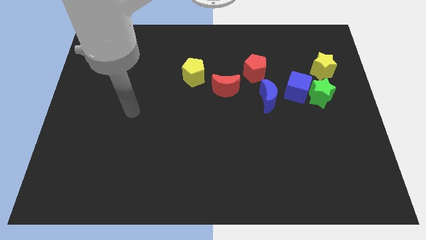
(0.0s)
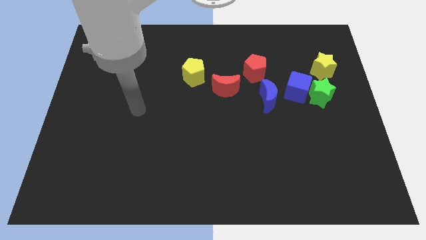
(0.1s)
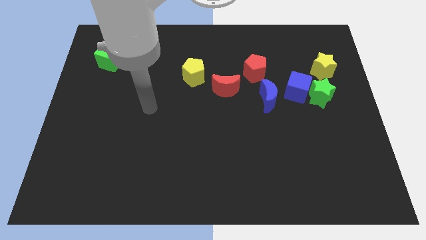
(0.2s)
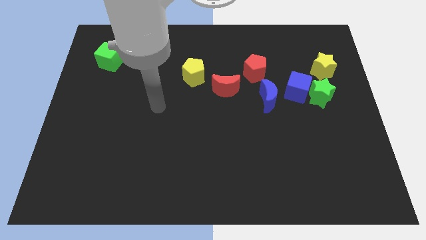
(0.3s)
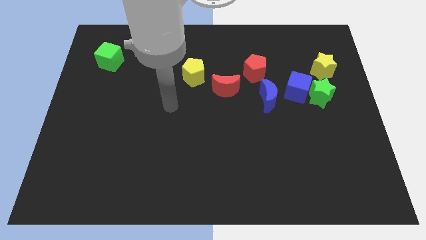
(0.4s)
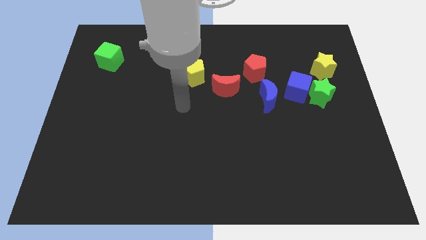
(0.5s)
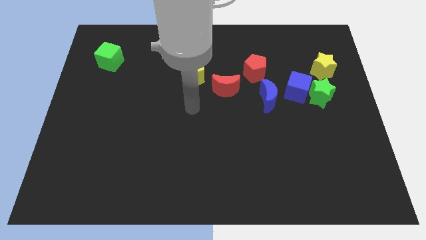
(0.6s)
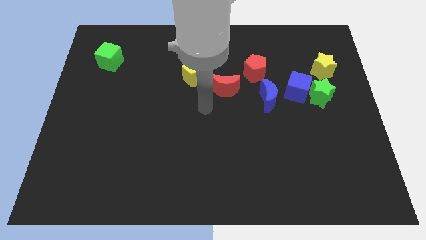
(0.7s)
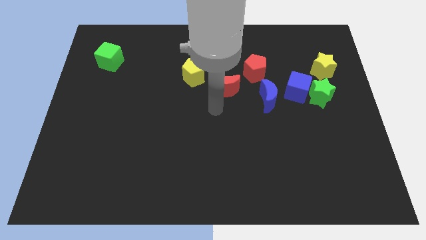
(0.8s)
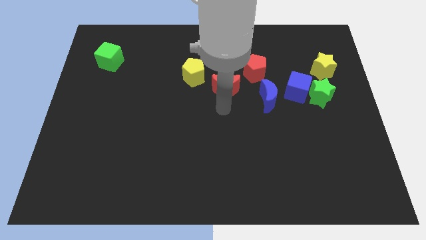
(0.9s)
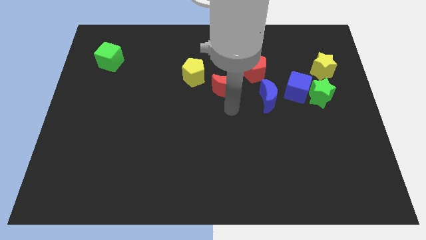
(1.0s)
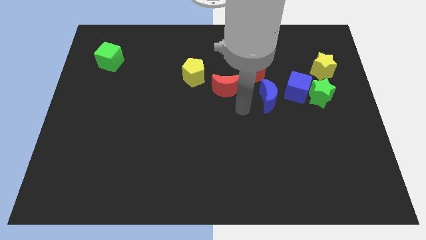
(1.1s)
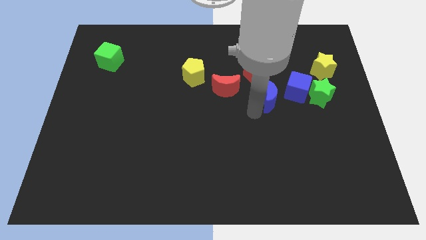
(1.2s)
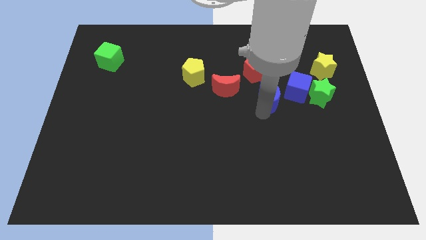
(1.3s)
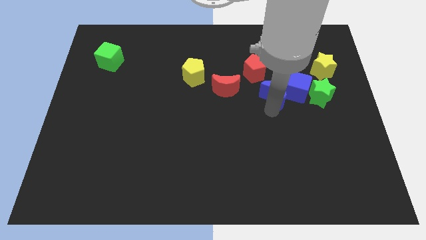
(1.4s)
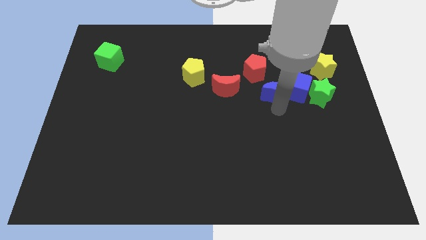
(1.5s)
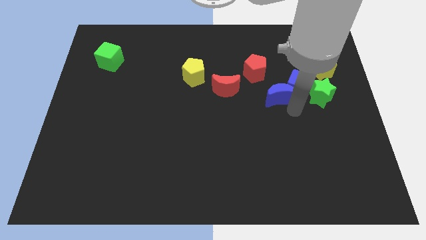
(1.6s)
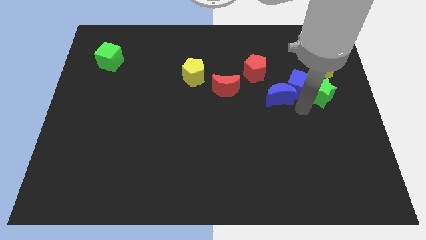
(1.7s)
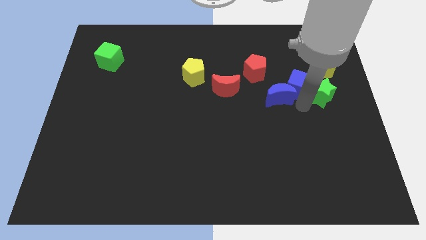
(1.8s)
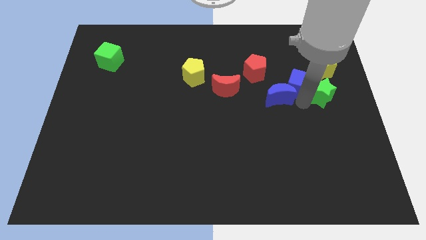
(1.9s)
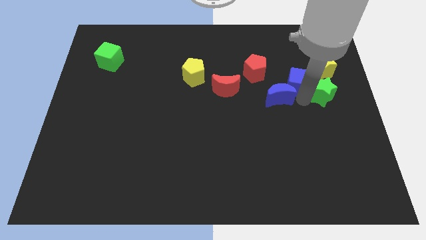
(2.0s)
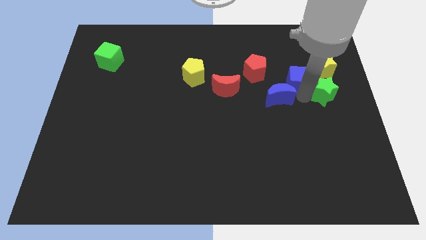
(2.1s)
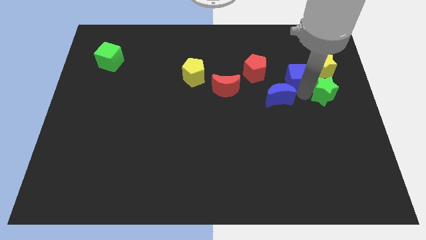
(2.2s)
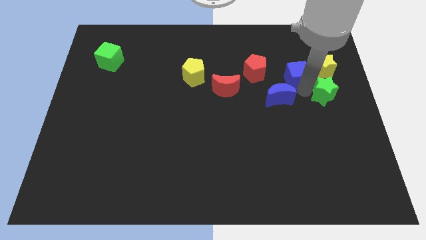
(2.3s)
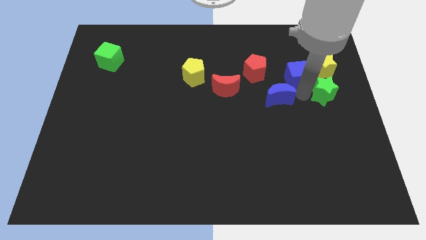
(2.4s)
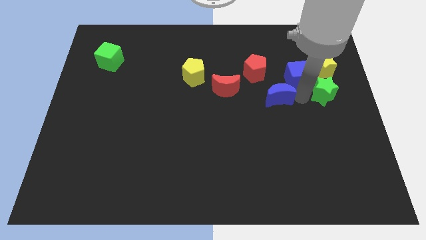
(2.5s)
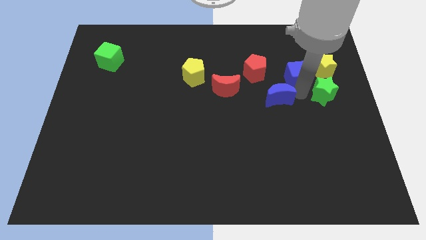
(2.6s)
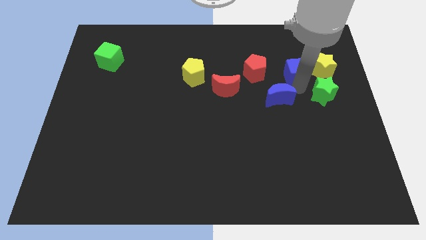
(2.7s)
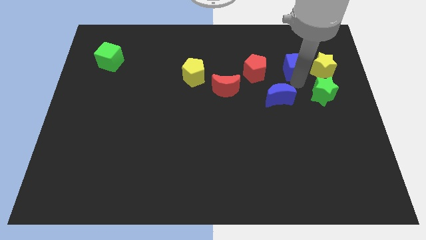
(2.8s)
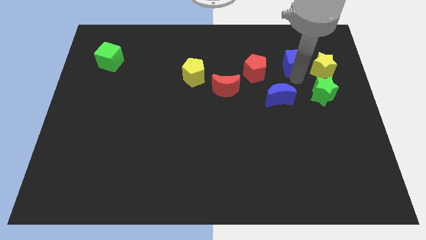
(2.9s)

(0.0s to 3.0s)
pull the blue cube apart from the green star and blue moon

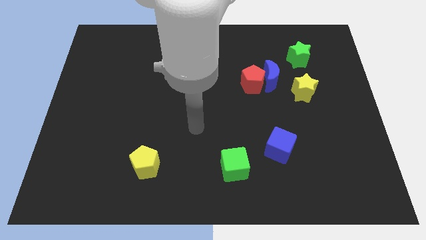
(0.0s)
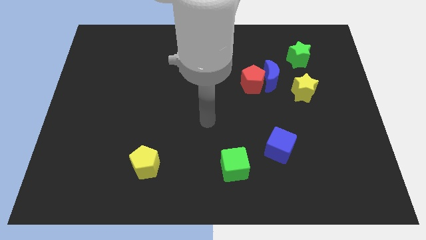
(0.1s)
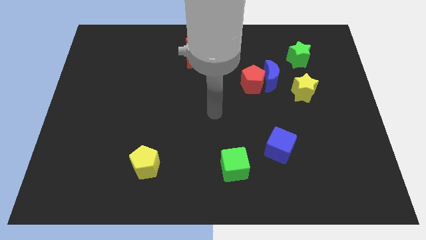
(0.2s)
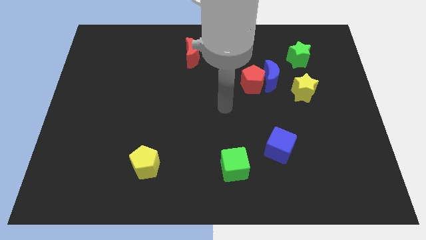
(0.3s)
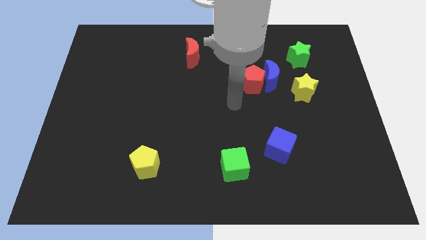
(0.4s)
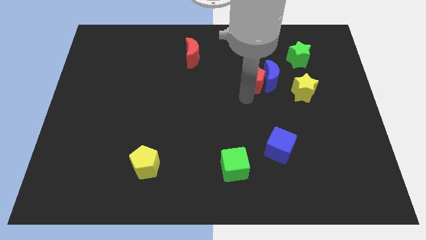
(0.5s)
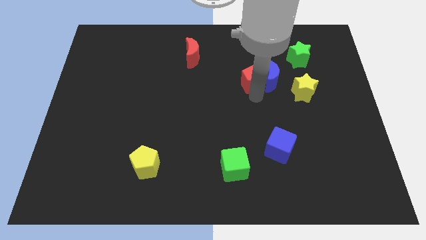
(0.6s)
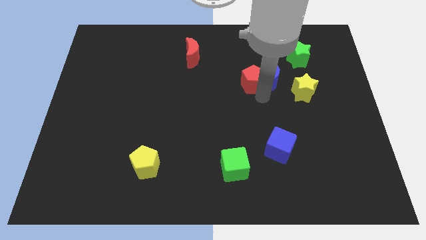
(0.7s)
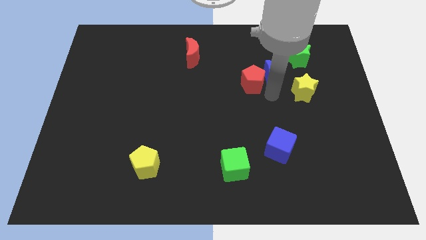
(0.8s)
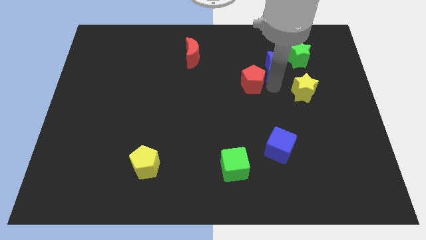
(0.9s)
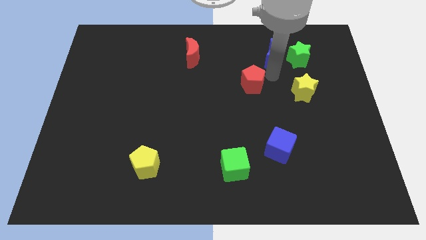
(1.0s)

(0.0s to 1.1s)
move the red pentagon away from the blue moon

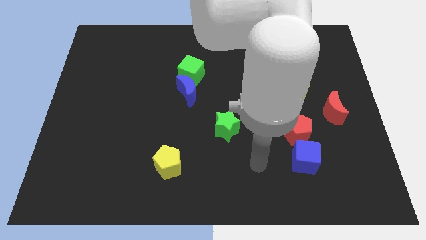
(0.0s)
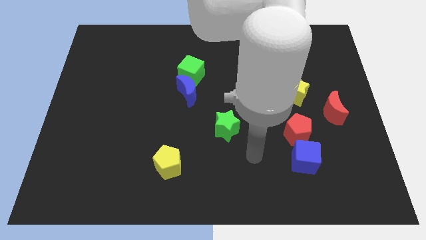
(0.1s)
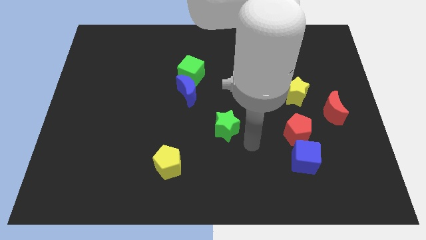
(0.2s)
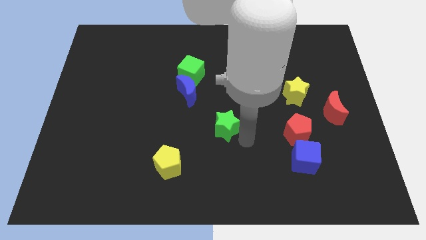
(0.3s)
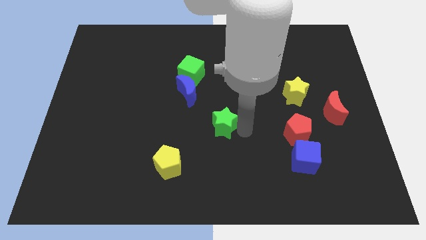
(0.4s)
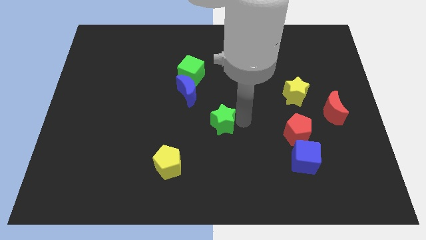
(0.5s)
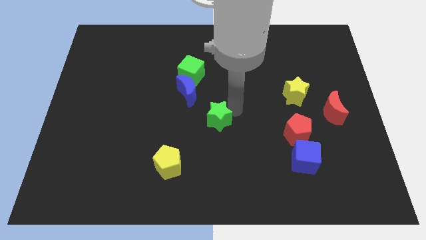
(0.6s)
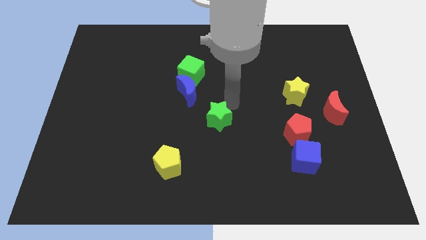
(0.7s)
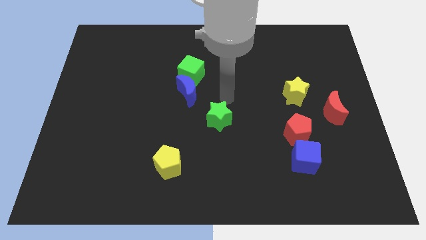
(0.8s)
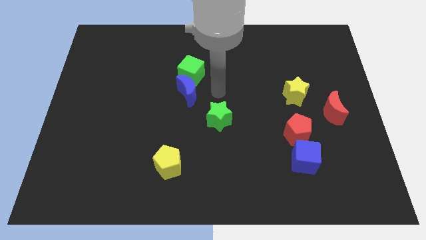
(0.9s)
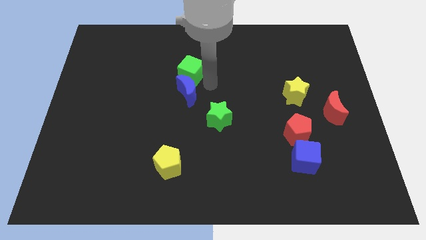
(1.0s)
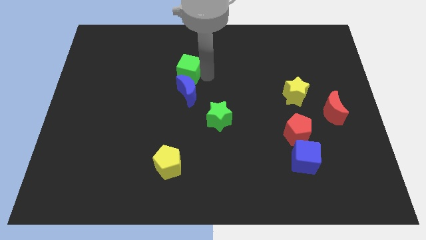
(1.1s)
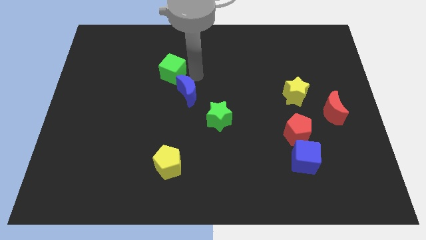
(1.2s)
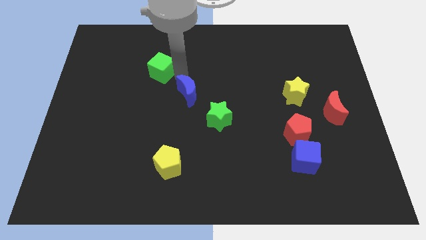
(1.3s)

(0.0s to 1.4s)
separate the blue moon from the green cube

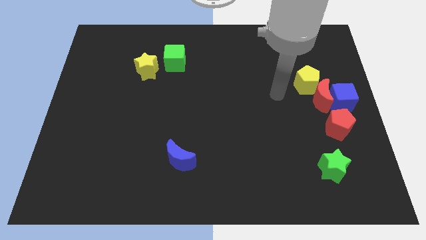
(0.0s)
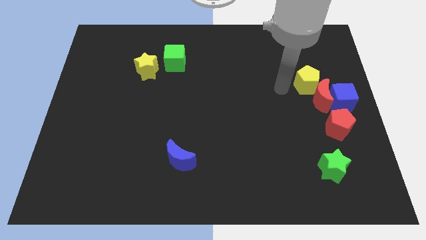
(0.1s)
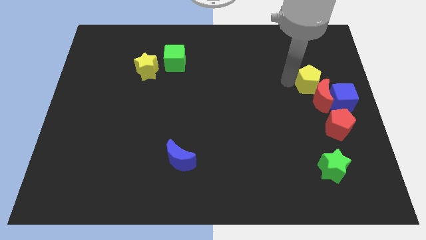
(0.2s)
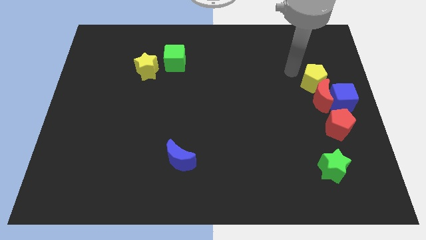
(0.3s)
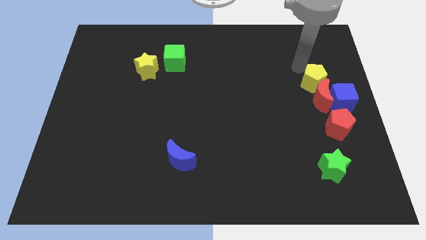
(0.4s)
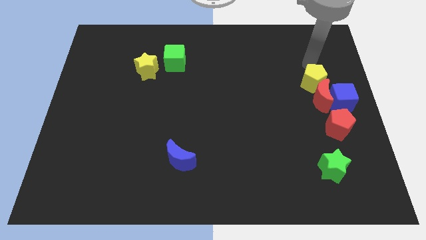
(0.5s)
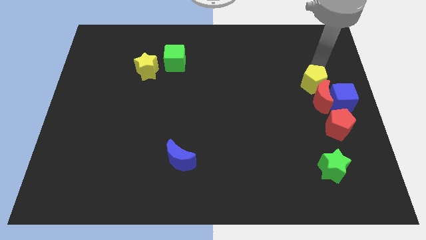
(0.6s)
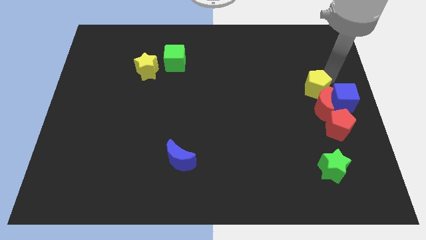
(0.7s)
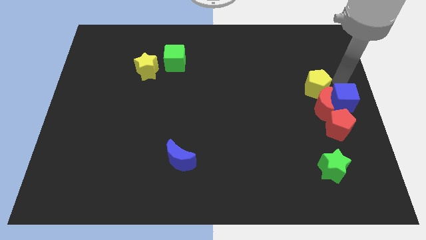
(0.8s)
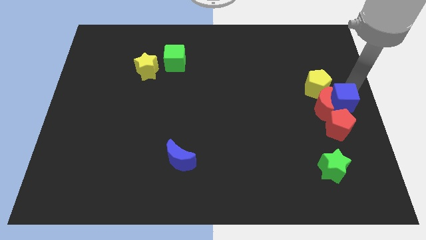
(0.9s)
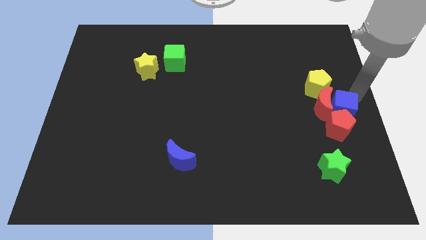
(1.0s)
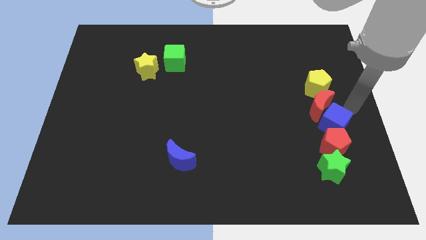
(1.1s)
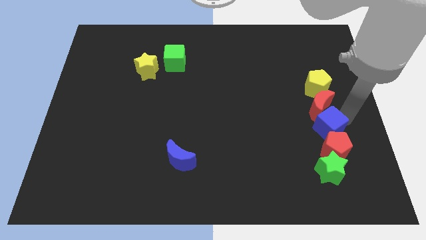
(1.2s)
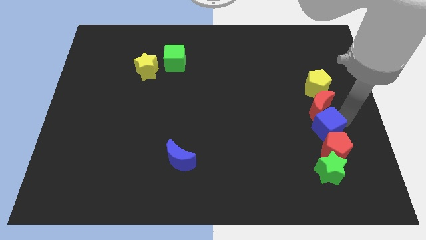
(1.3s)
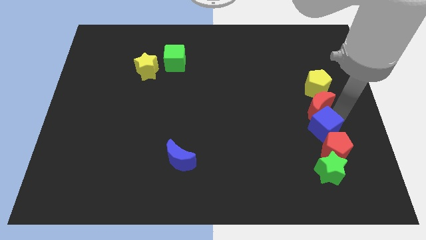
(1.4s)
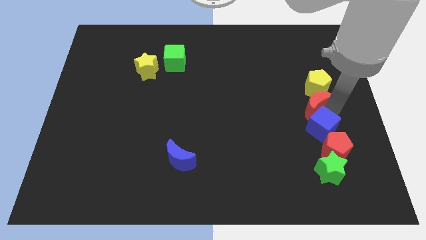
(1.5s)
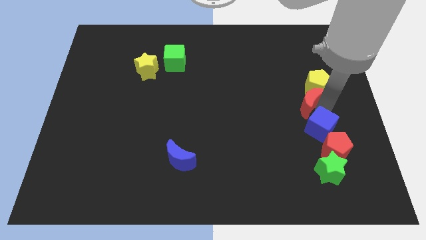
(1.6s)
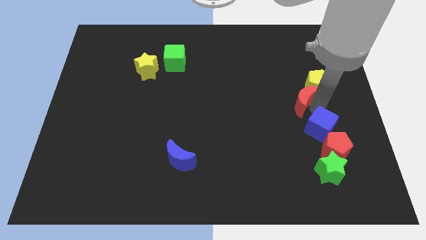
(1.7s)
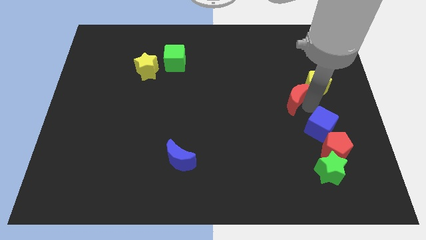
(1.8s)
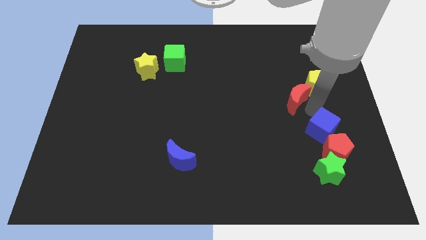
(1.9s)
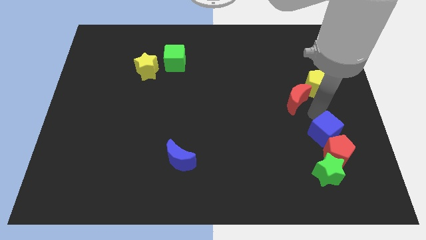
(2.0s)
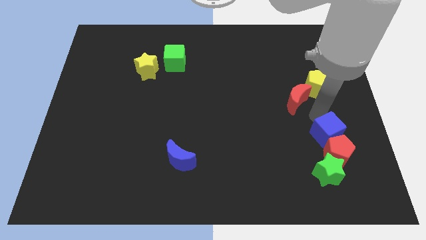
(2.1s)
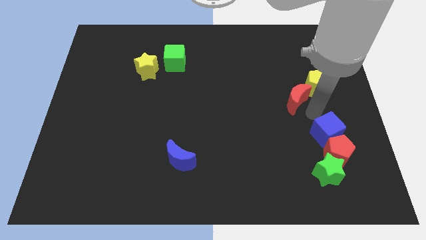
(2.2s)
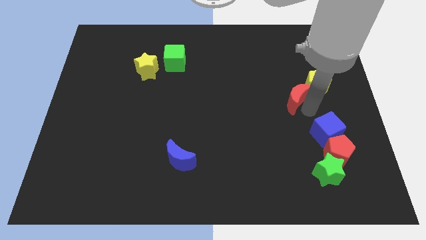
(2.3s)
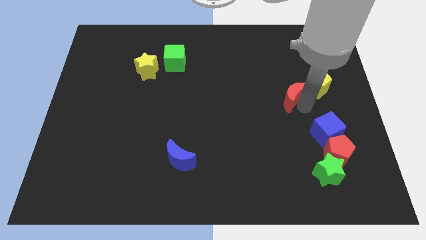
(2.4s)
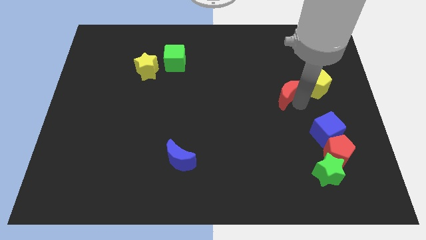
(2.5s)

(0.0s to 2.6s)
separate the red moon from the group of blocks

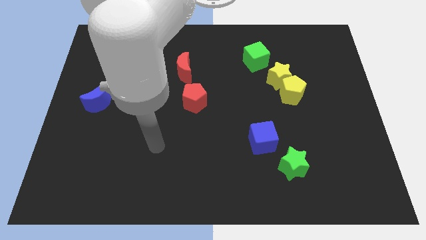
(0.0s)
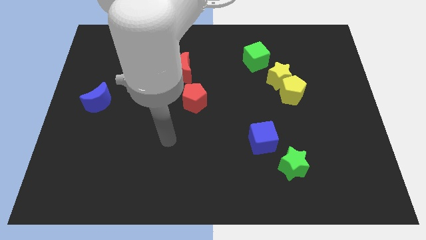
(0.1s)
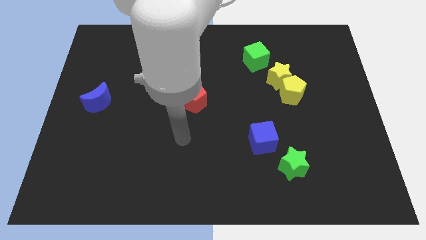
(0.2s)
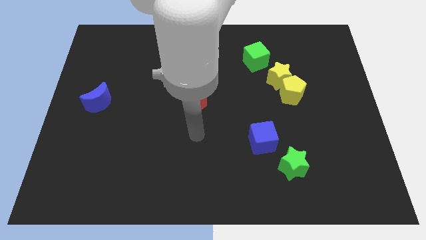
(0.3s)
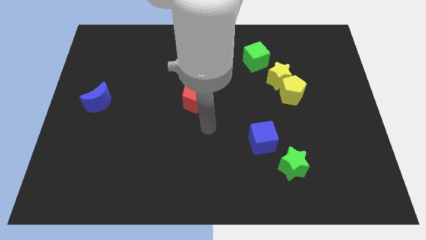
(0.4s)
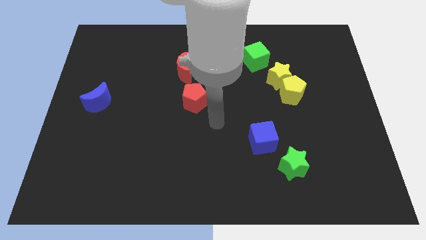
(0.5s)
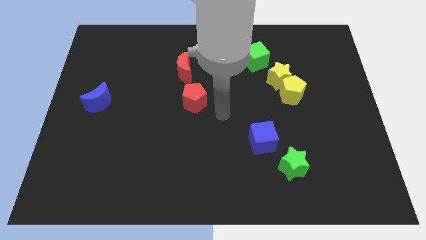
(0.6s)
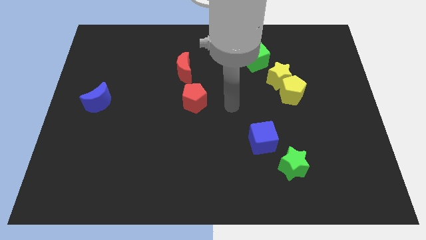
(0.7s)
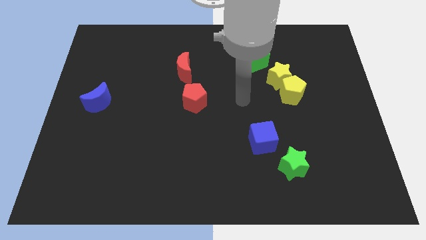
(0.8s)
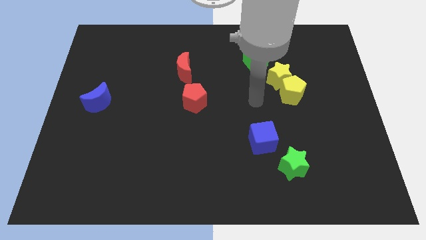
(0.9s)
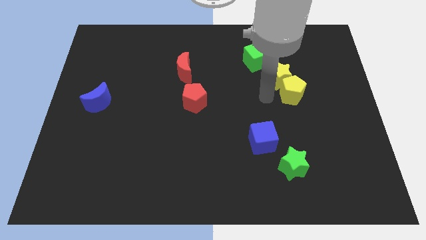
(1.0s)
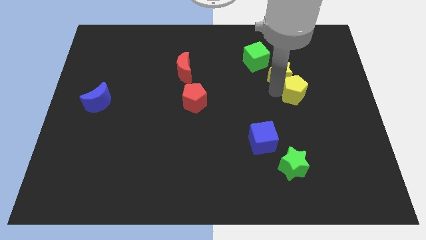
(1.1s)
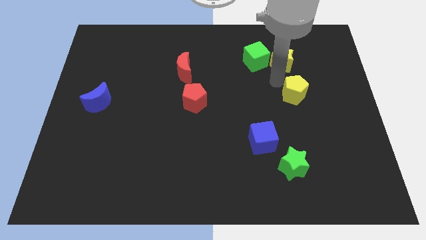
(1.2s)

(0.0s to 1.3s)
pull the yellow pentagon apart from the yellow star
